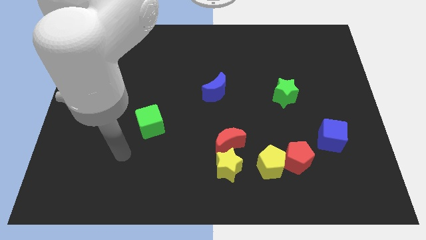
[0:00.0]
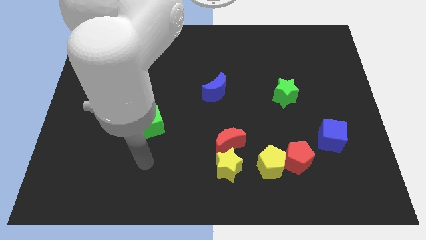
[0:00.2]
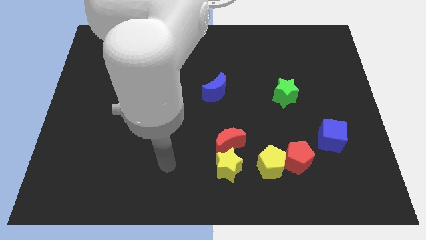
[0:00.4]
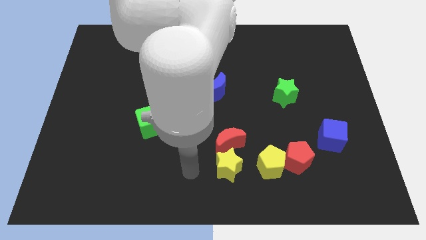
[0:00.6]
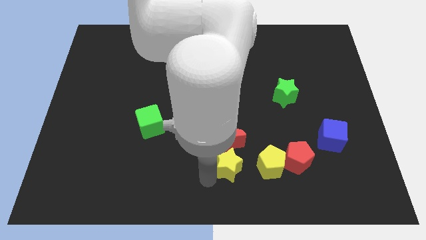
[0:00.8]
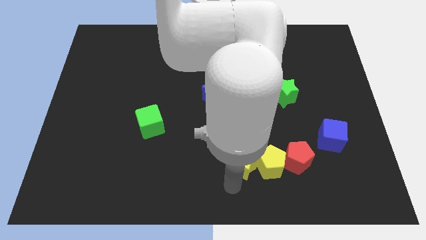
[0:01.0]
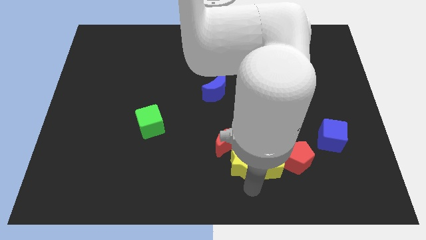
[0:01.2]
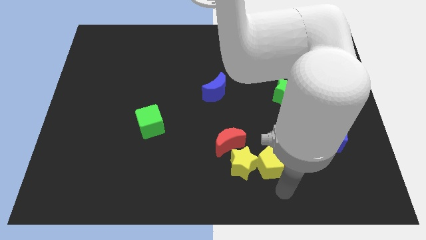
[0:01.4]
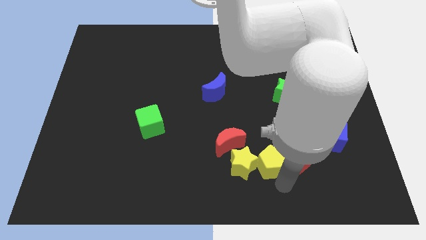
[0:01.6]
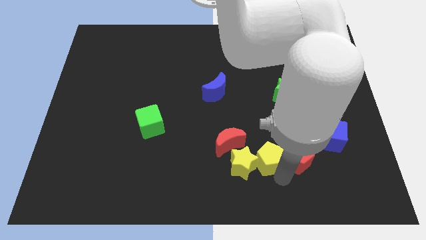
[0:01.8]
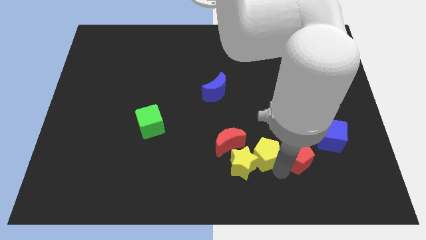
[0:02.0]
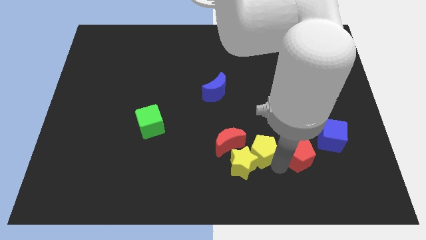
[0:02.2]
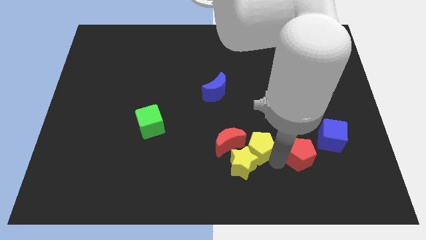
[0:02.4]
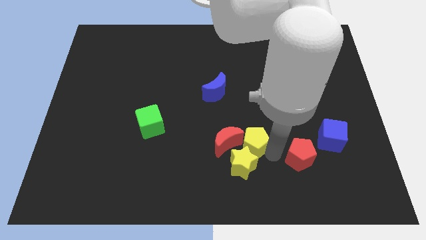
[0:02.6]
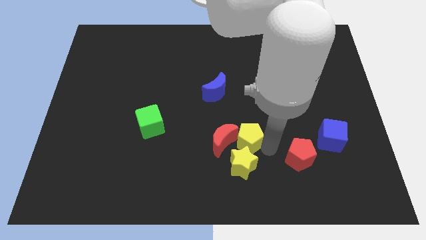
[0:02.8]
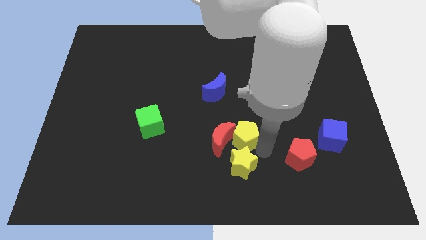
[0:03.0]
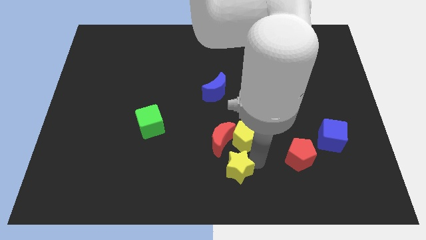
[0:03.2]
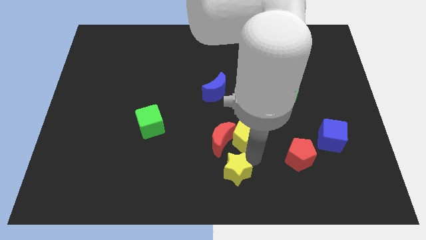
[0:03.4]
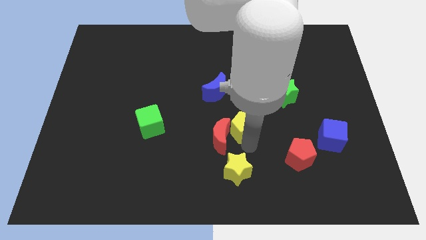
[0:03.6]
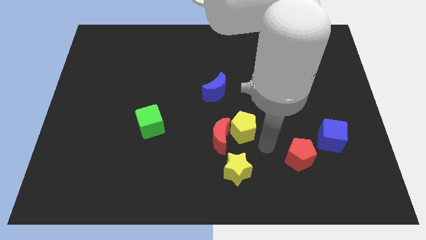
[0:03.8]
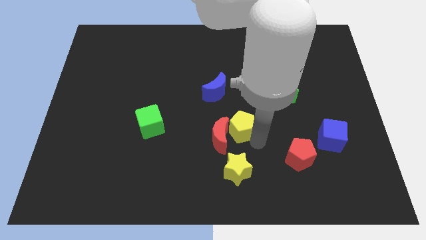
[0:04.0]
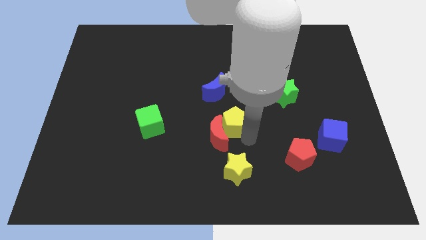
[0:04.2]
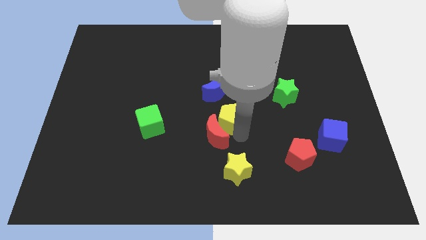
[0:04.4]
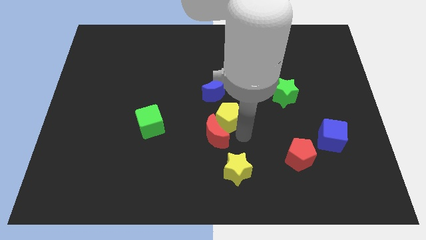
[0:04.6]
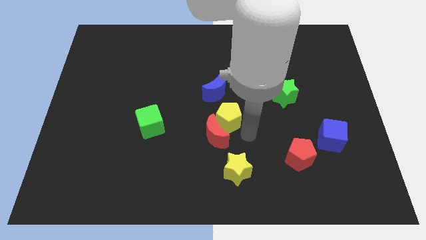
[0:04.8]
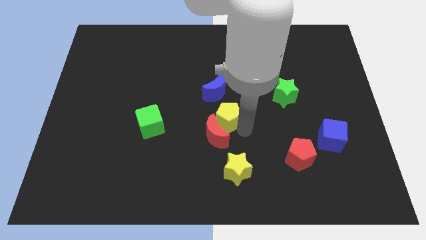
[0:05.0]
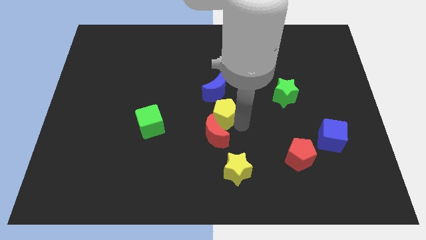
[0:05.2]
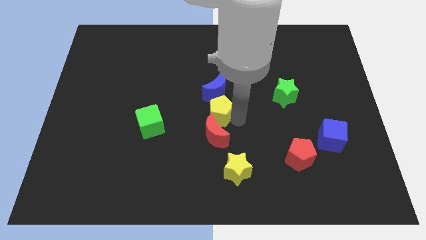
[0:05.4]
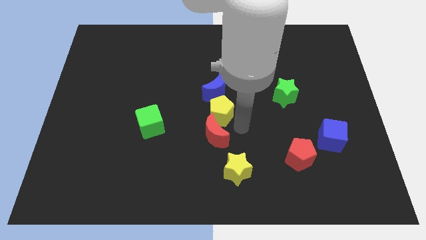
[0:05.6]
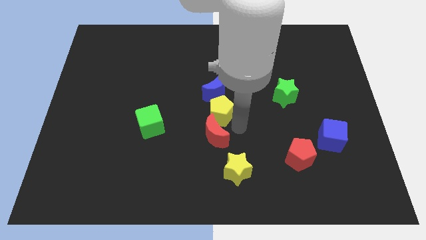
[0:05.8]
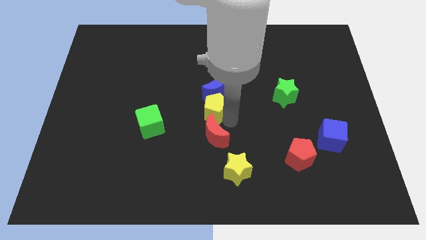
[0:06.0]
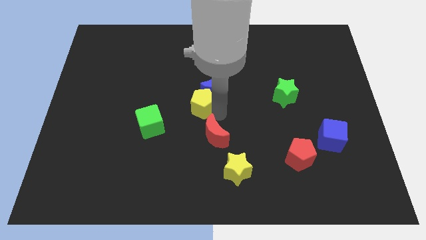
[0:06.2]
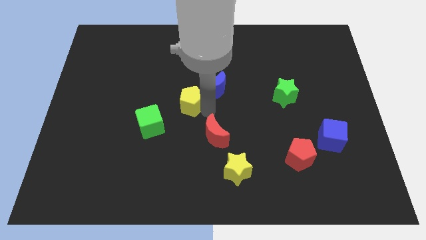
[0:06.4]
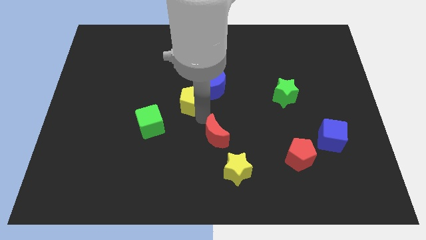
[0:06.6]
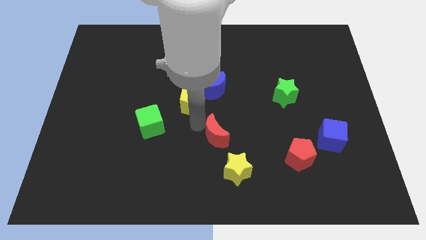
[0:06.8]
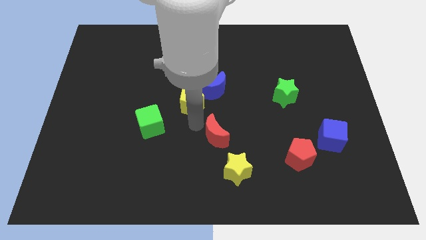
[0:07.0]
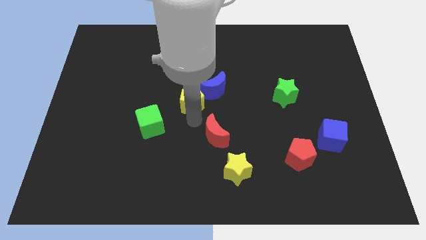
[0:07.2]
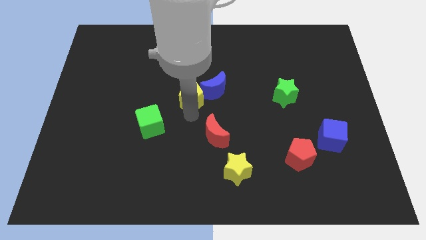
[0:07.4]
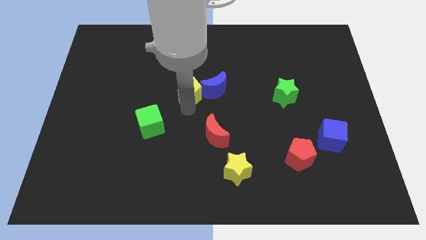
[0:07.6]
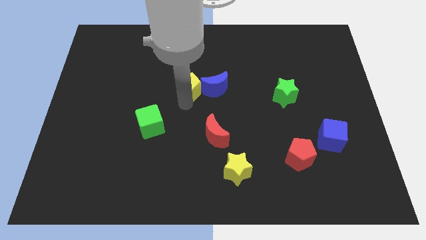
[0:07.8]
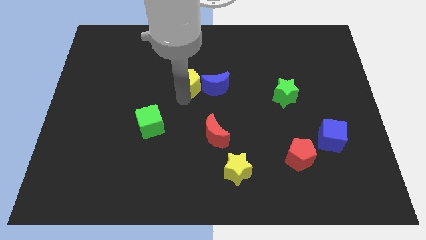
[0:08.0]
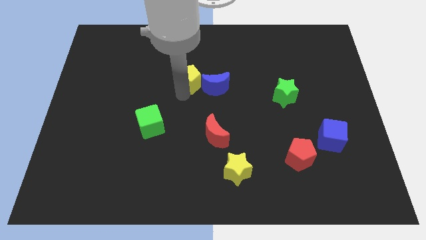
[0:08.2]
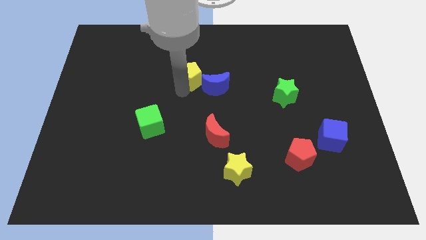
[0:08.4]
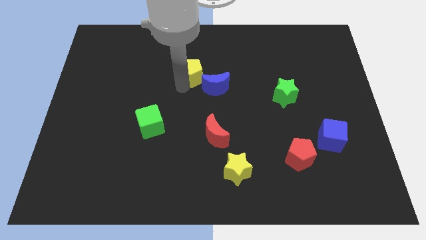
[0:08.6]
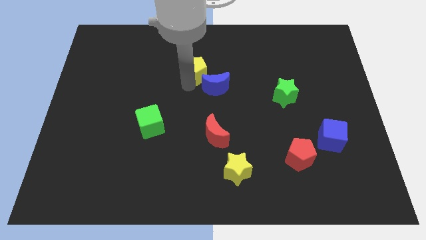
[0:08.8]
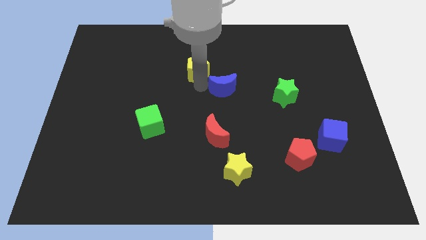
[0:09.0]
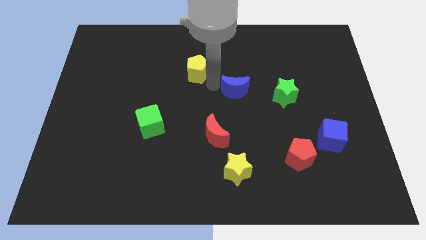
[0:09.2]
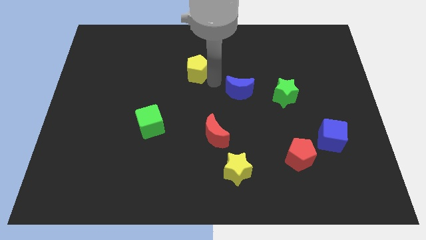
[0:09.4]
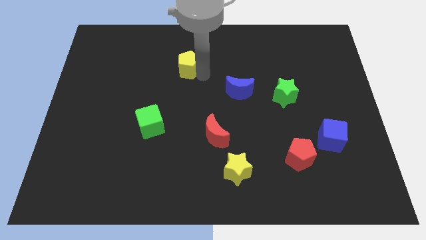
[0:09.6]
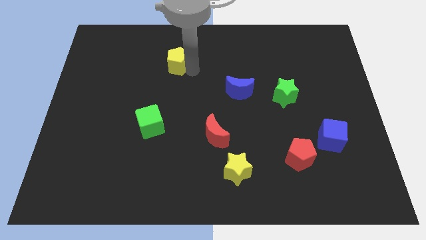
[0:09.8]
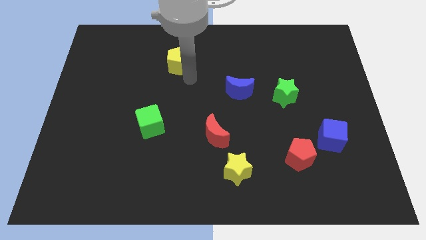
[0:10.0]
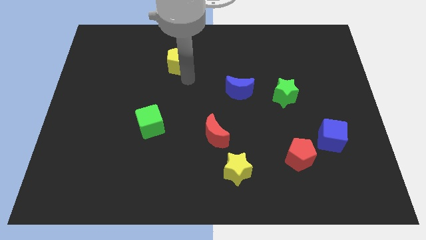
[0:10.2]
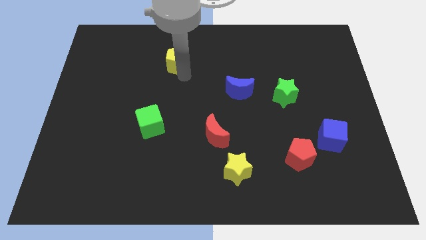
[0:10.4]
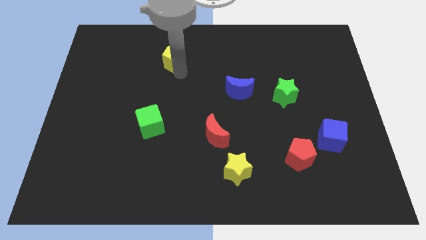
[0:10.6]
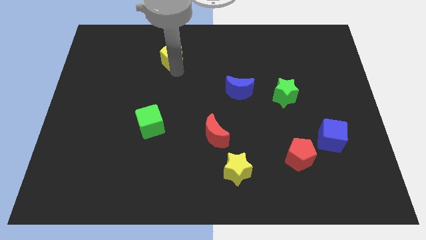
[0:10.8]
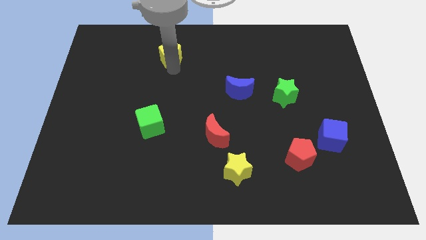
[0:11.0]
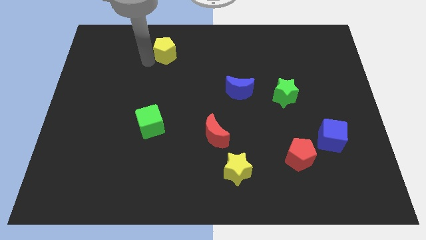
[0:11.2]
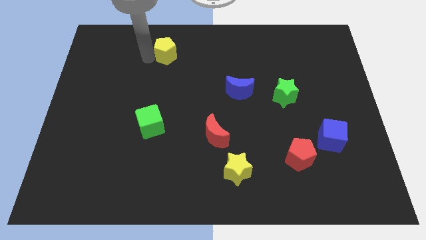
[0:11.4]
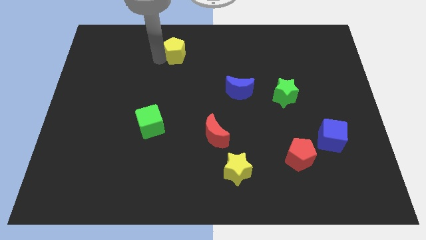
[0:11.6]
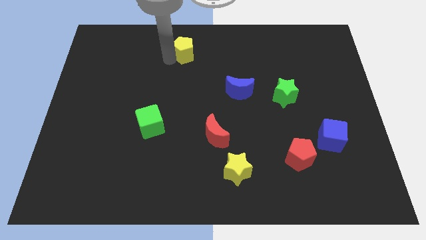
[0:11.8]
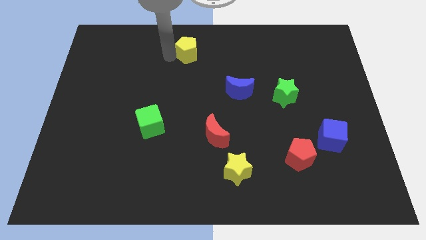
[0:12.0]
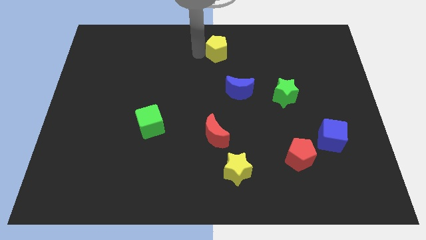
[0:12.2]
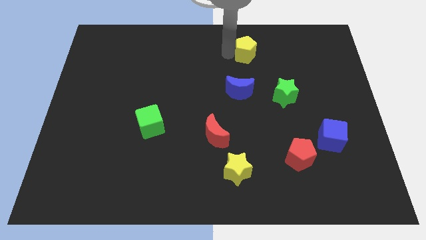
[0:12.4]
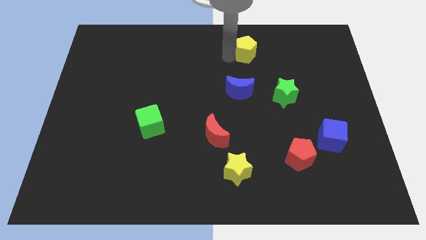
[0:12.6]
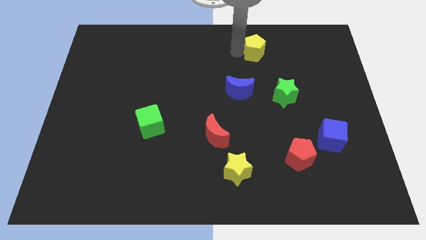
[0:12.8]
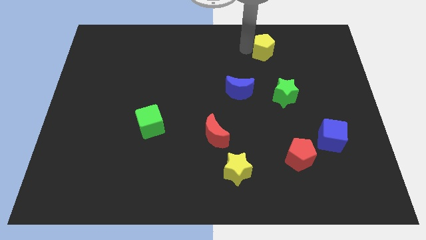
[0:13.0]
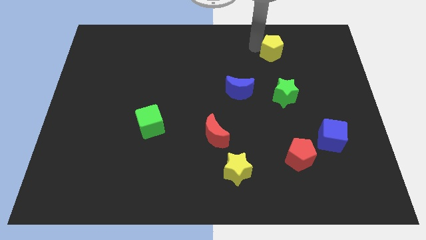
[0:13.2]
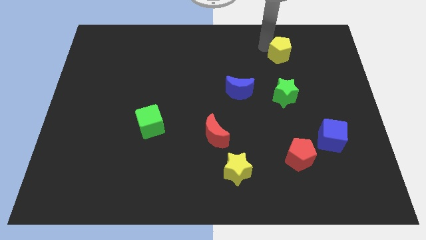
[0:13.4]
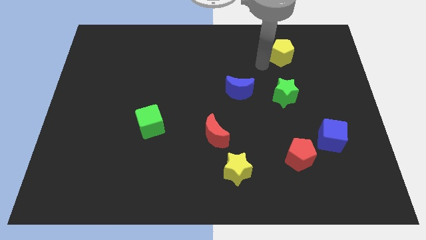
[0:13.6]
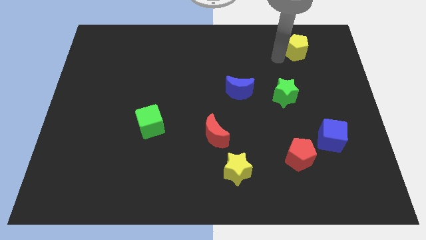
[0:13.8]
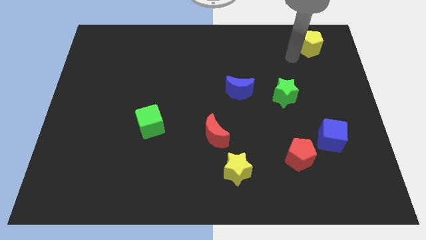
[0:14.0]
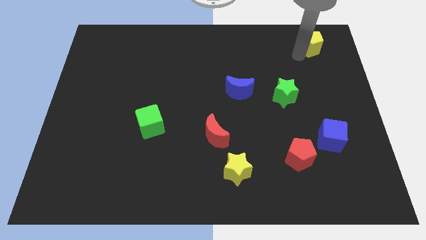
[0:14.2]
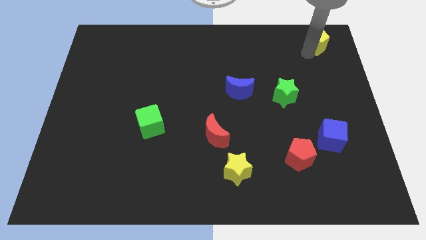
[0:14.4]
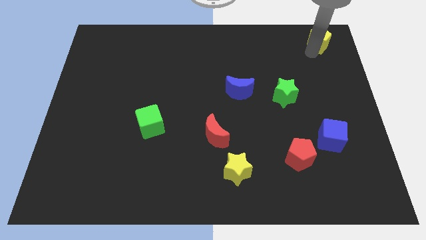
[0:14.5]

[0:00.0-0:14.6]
move the yellow pentagon to the top right corner
